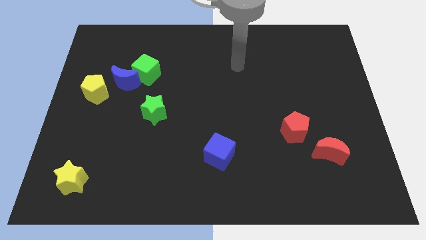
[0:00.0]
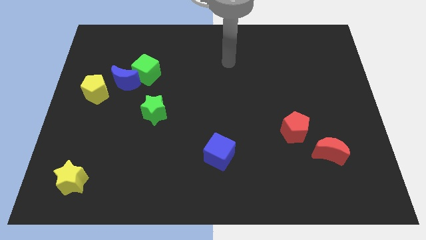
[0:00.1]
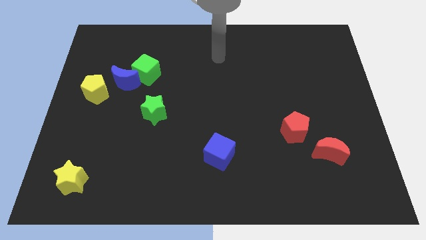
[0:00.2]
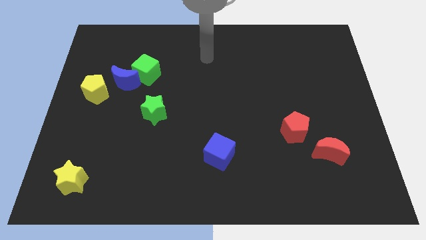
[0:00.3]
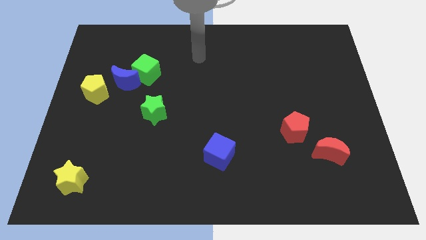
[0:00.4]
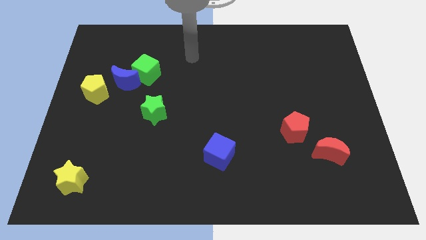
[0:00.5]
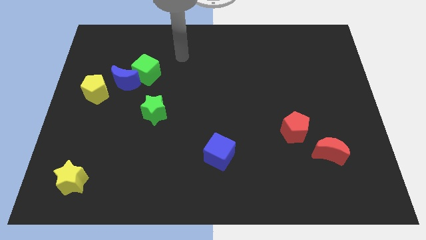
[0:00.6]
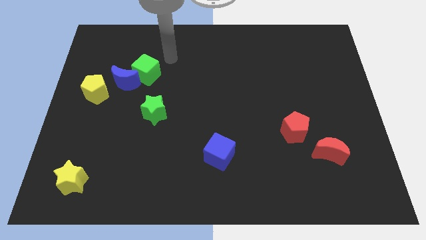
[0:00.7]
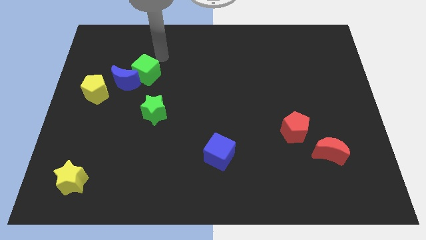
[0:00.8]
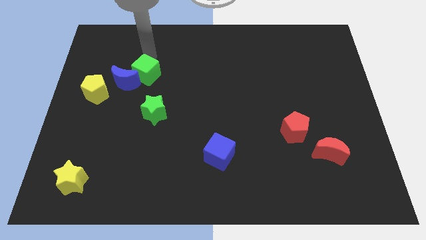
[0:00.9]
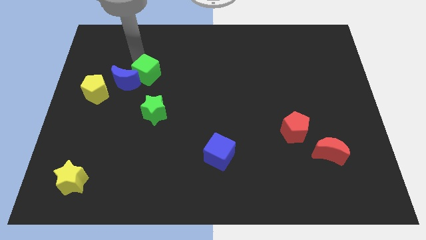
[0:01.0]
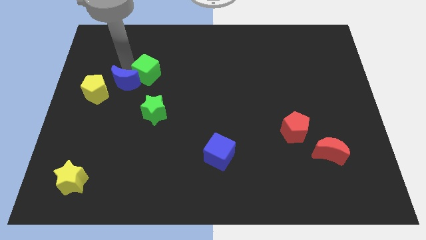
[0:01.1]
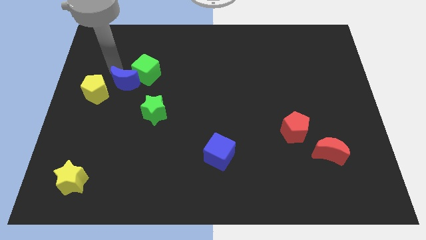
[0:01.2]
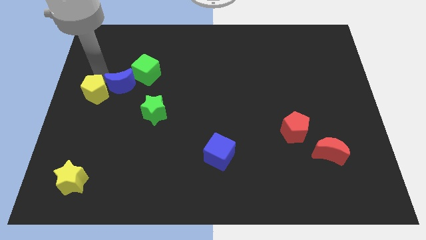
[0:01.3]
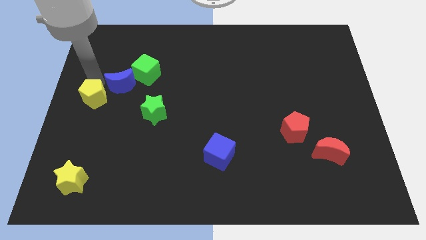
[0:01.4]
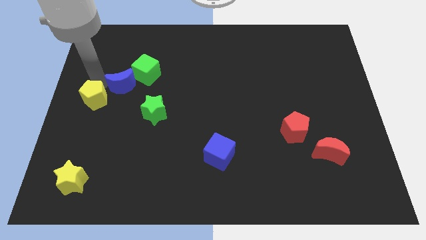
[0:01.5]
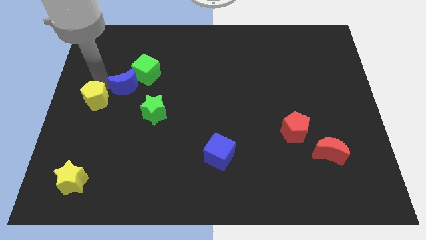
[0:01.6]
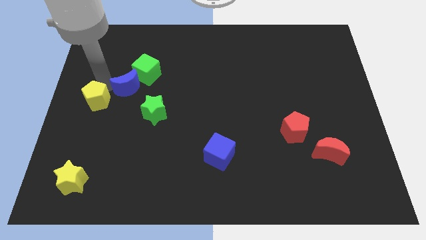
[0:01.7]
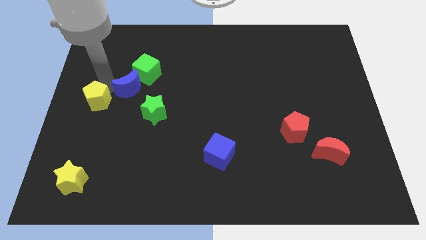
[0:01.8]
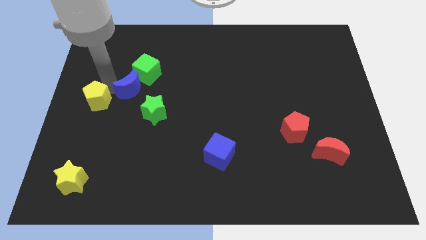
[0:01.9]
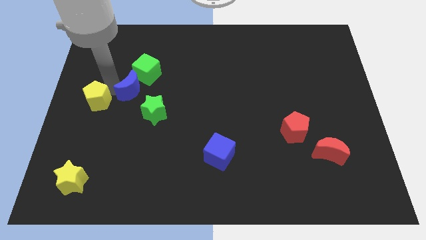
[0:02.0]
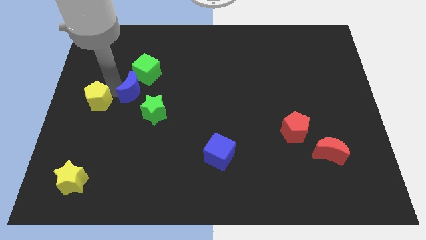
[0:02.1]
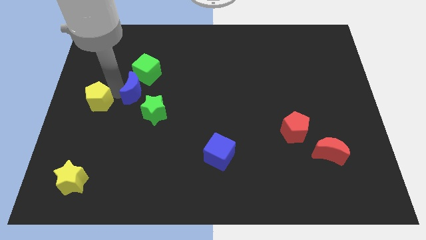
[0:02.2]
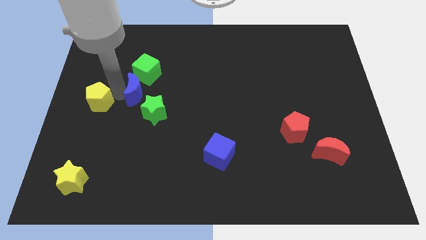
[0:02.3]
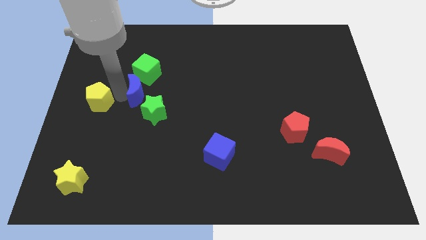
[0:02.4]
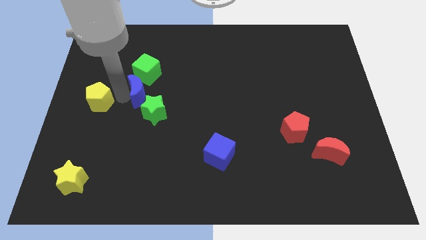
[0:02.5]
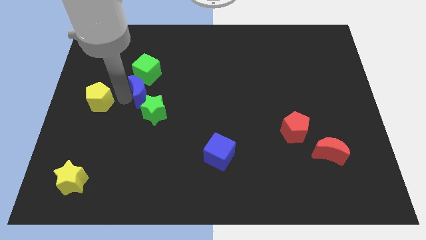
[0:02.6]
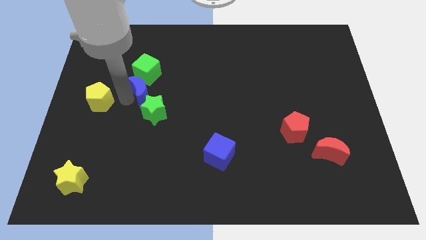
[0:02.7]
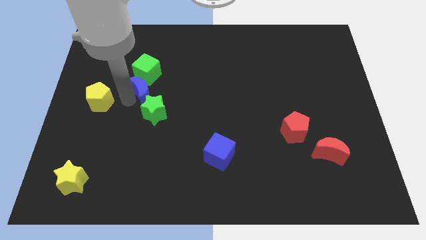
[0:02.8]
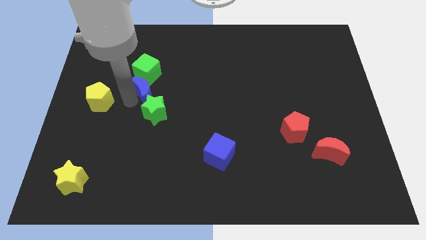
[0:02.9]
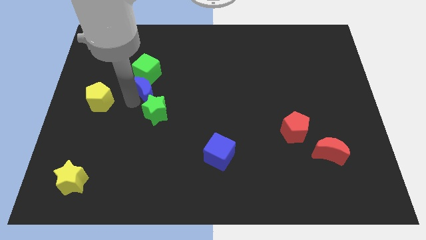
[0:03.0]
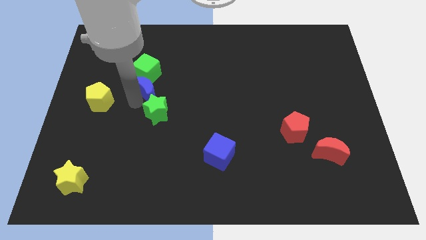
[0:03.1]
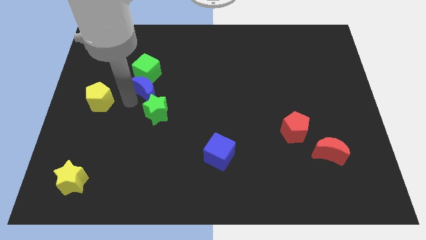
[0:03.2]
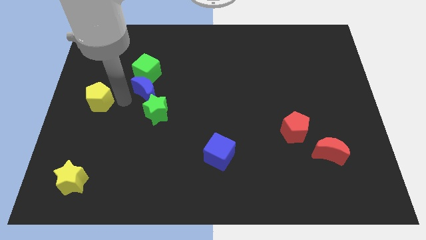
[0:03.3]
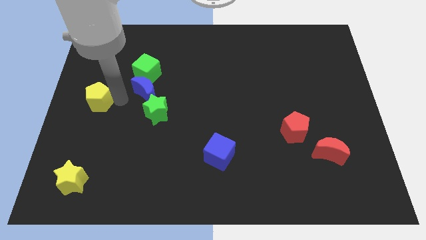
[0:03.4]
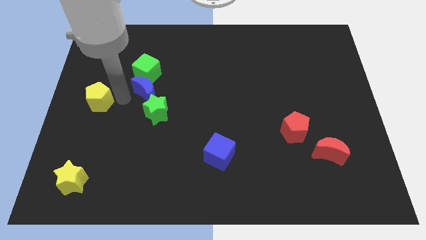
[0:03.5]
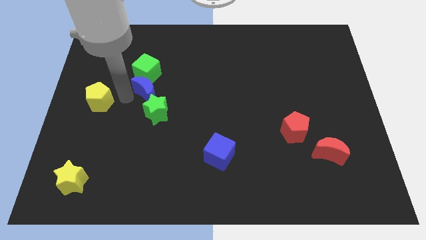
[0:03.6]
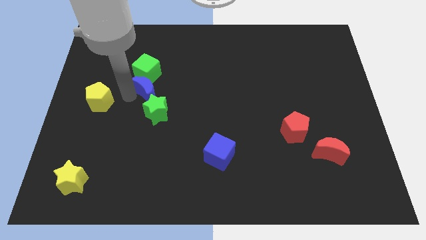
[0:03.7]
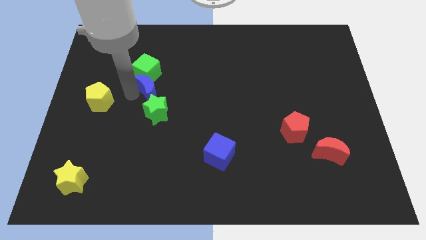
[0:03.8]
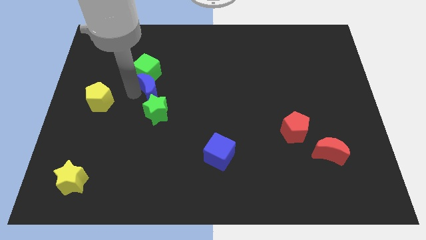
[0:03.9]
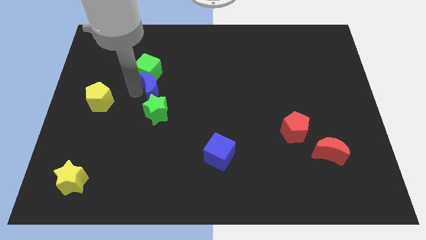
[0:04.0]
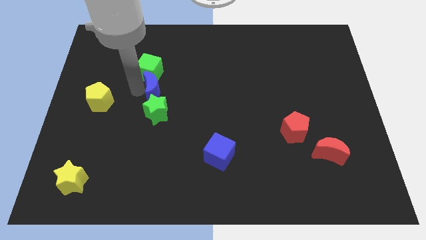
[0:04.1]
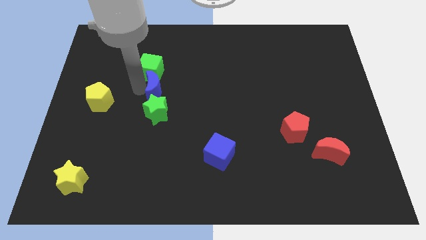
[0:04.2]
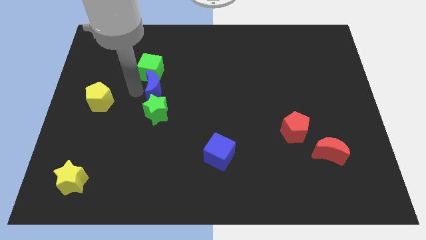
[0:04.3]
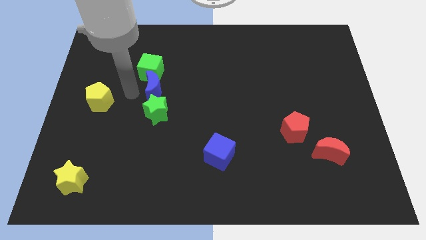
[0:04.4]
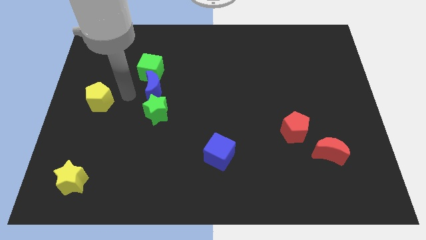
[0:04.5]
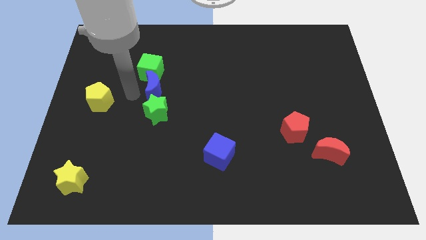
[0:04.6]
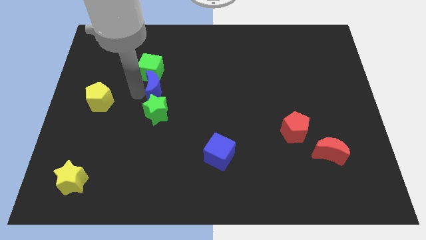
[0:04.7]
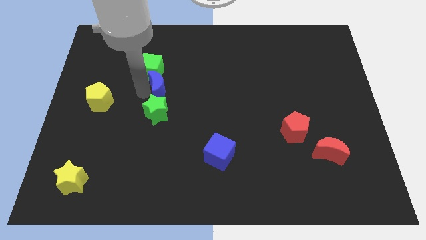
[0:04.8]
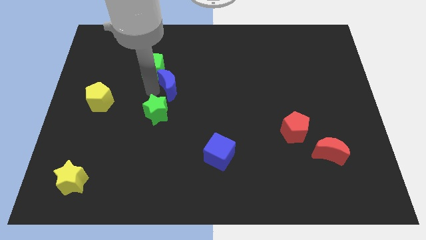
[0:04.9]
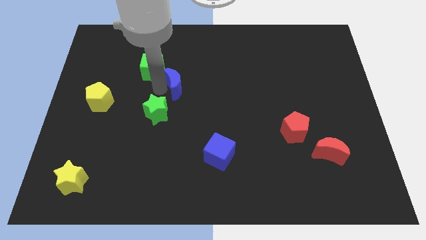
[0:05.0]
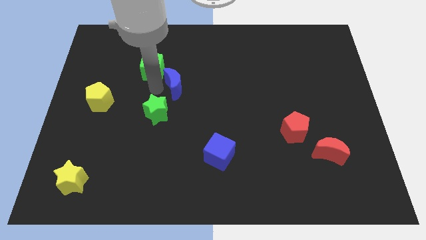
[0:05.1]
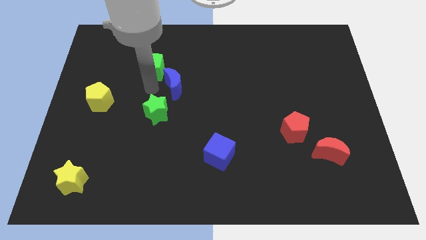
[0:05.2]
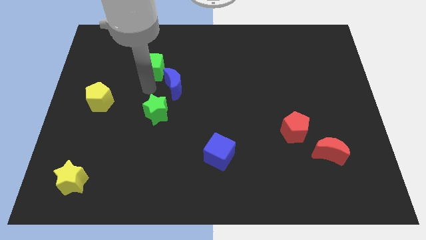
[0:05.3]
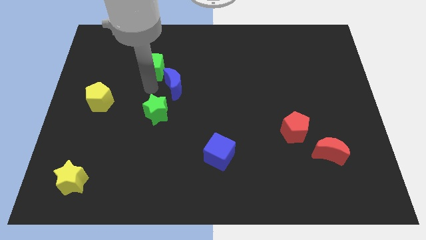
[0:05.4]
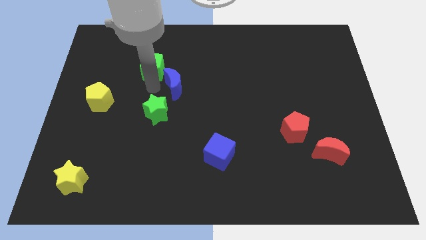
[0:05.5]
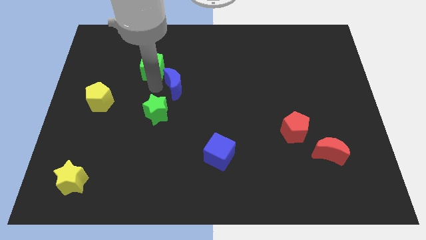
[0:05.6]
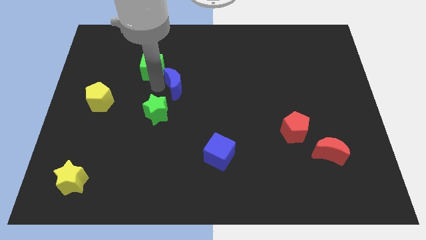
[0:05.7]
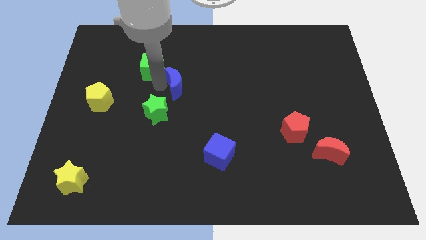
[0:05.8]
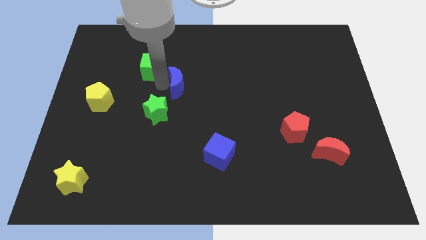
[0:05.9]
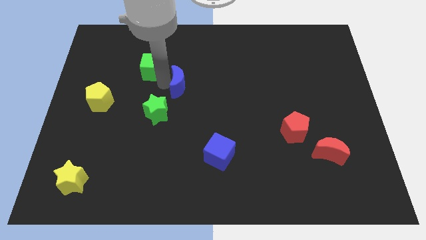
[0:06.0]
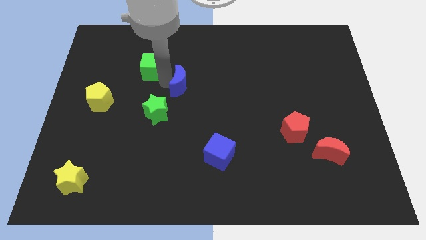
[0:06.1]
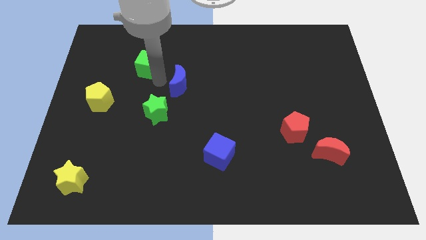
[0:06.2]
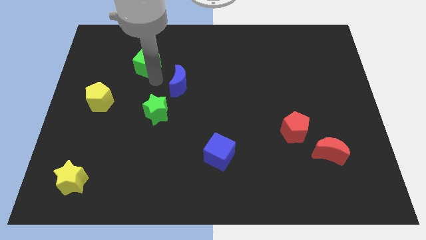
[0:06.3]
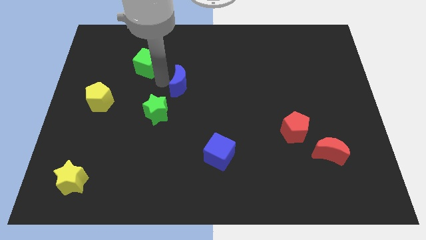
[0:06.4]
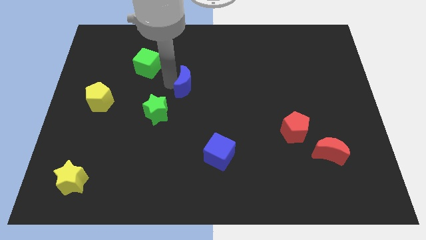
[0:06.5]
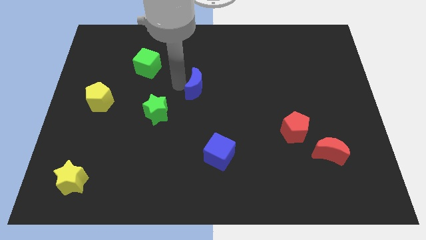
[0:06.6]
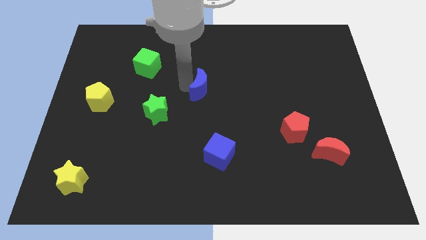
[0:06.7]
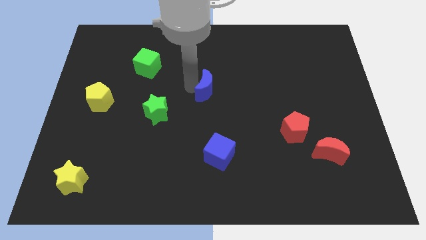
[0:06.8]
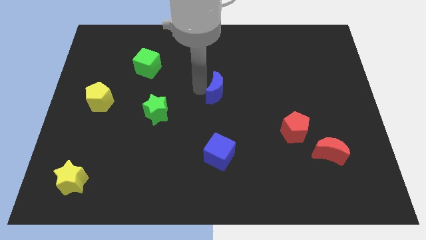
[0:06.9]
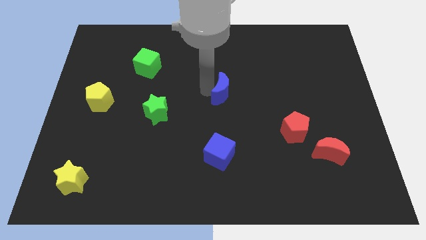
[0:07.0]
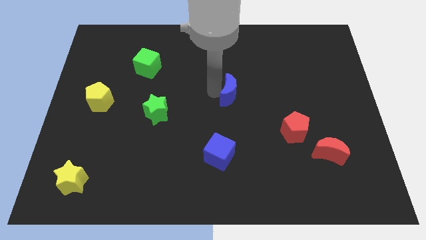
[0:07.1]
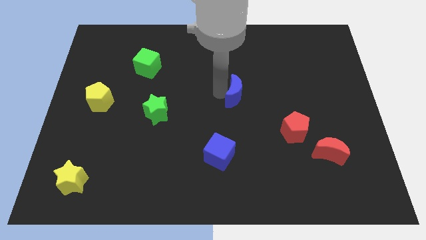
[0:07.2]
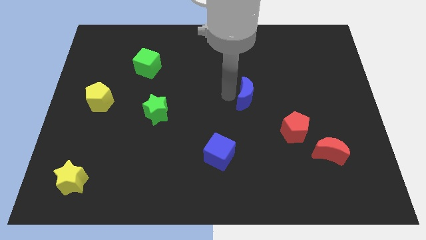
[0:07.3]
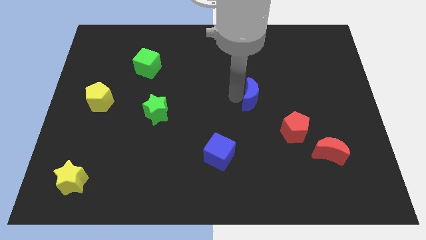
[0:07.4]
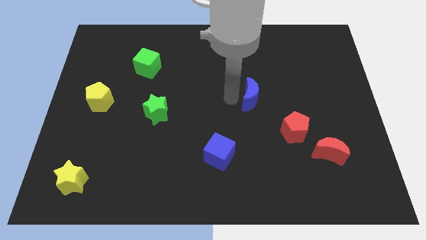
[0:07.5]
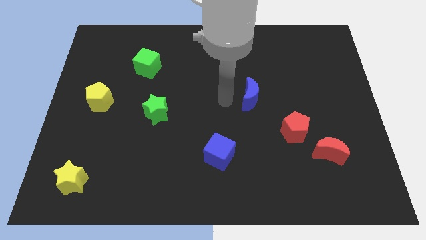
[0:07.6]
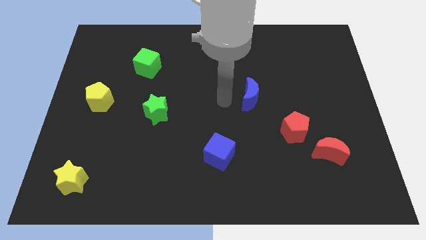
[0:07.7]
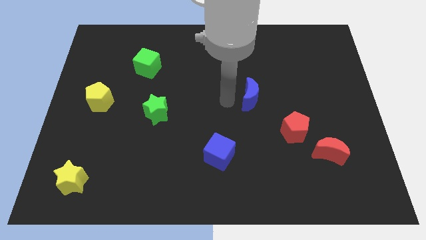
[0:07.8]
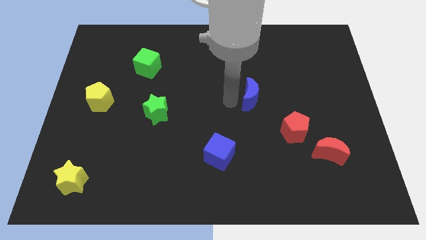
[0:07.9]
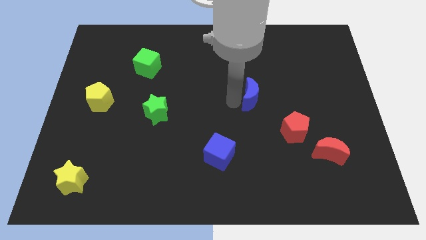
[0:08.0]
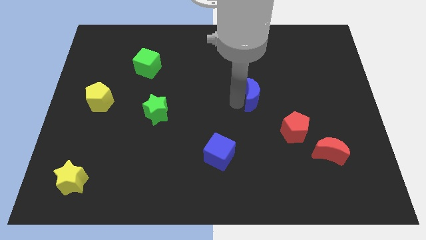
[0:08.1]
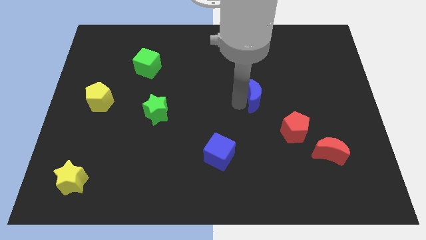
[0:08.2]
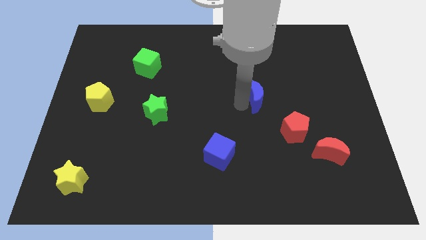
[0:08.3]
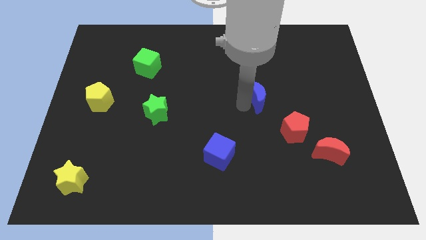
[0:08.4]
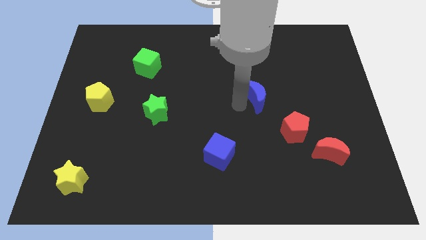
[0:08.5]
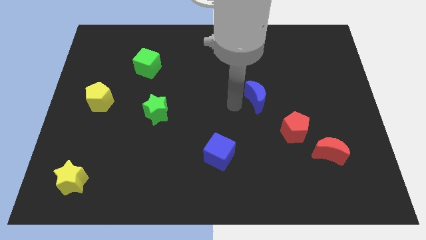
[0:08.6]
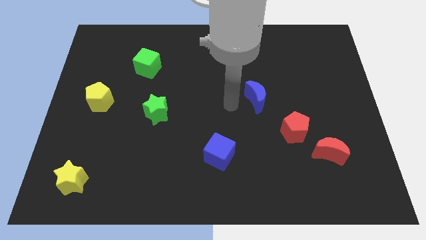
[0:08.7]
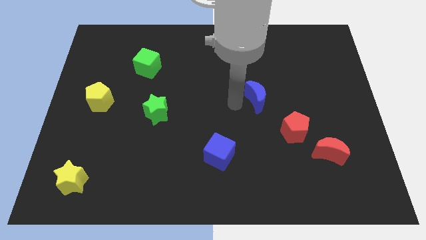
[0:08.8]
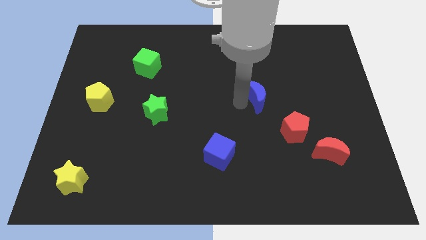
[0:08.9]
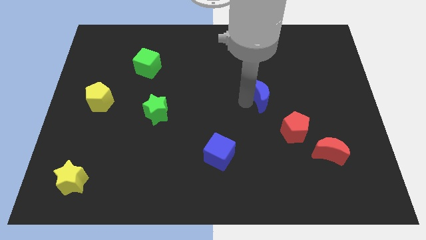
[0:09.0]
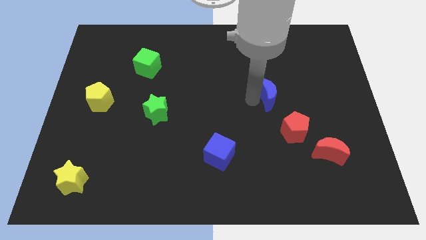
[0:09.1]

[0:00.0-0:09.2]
put the blue moon to the top of the red pentagon
